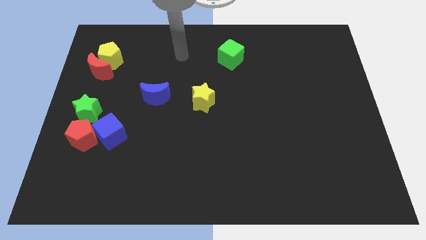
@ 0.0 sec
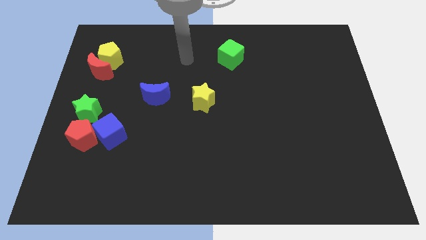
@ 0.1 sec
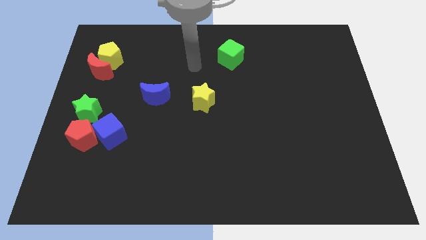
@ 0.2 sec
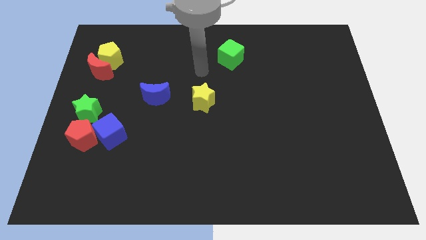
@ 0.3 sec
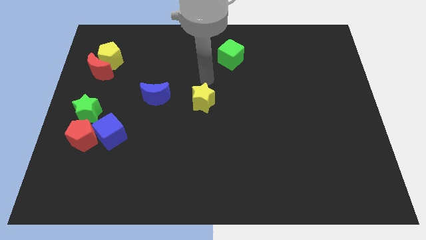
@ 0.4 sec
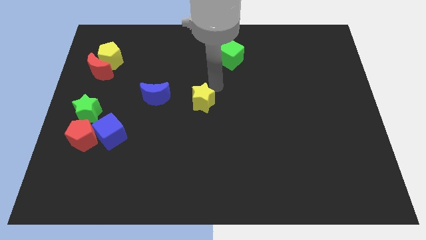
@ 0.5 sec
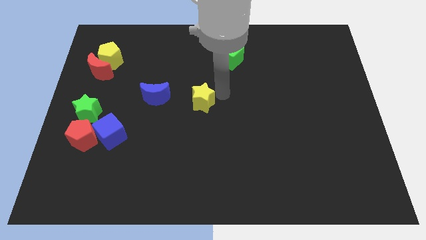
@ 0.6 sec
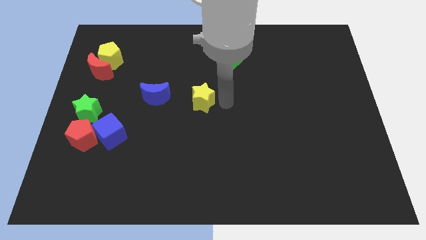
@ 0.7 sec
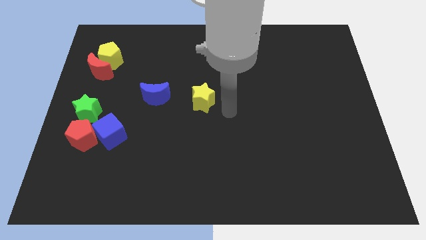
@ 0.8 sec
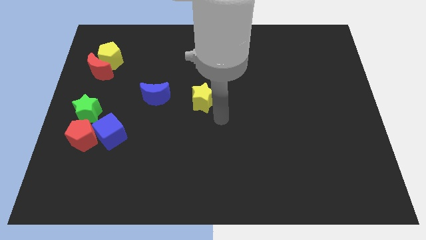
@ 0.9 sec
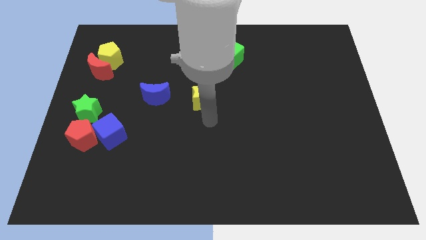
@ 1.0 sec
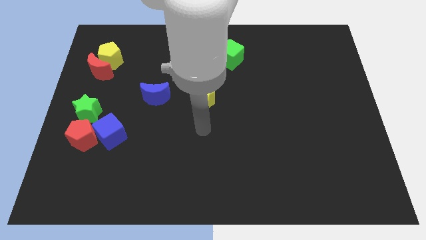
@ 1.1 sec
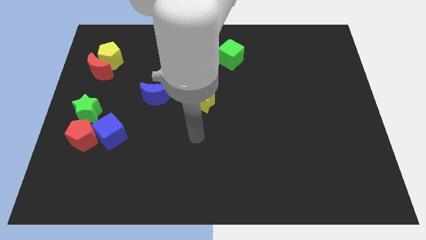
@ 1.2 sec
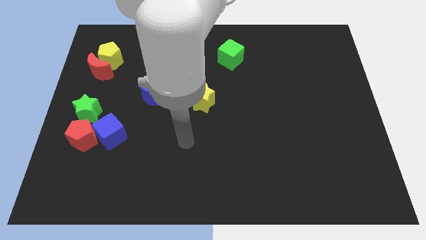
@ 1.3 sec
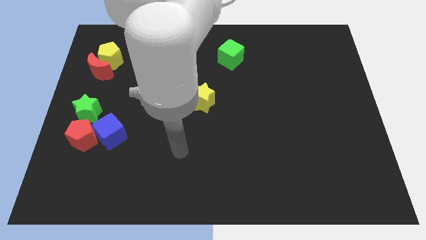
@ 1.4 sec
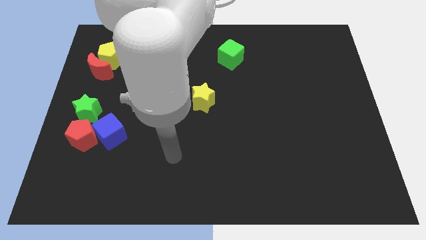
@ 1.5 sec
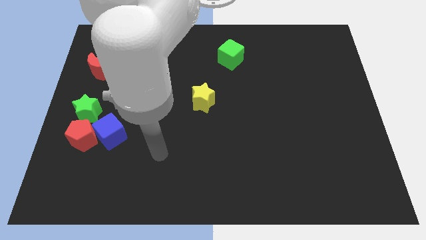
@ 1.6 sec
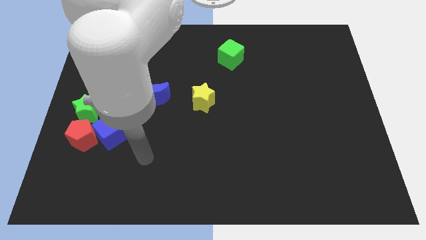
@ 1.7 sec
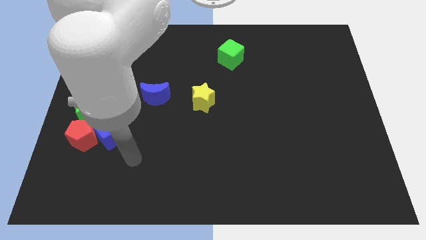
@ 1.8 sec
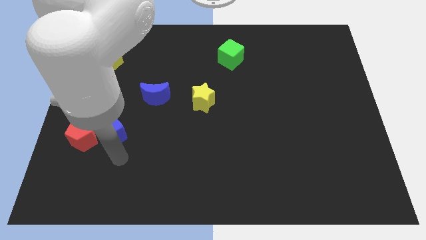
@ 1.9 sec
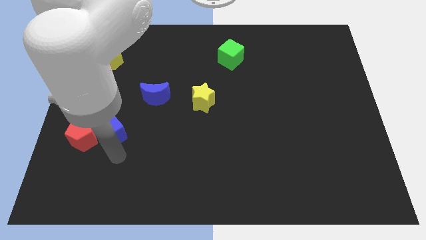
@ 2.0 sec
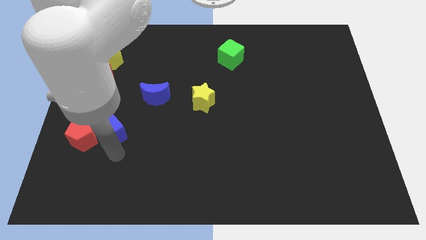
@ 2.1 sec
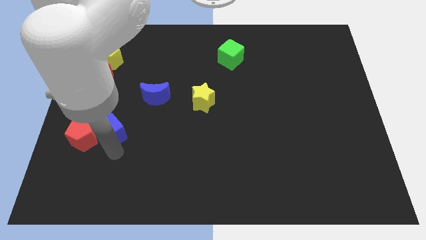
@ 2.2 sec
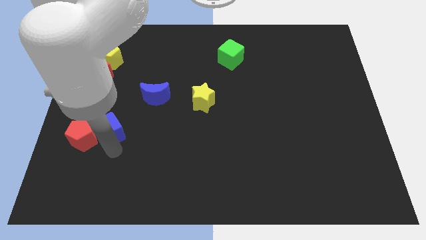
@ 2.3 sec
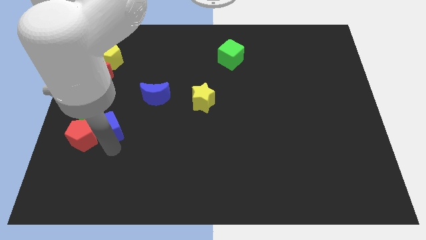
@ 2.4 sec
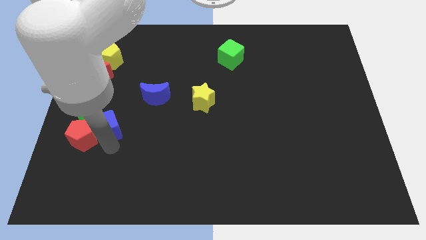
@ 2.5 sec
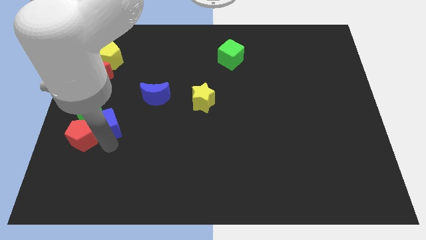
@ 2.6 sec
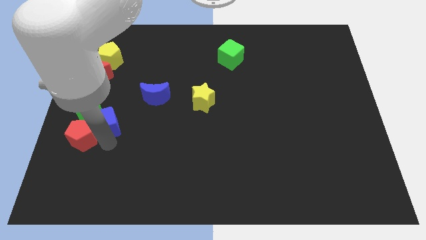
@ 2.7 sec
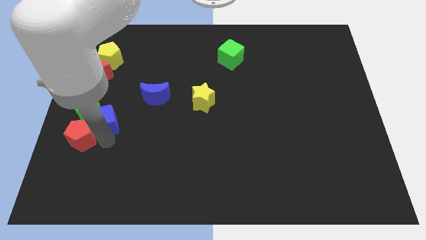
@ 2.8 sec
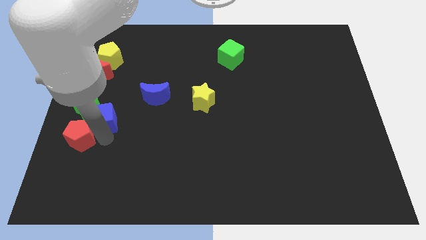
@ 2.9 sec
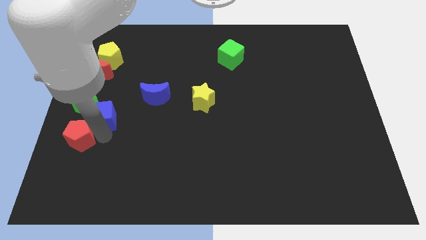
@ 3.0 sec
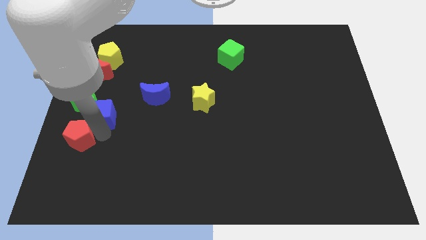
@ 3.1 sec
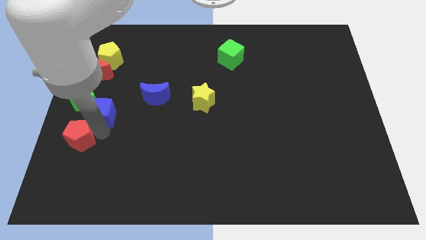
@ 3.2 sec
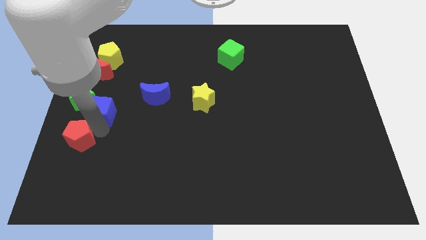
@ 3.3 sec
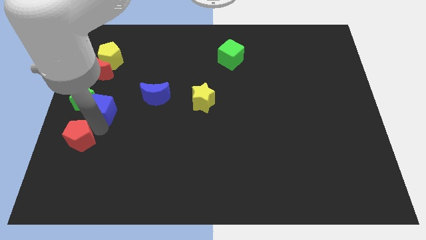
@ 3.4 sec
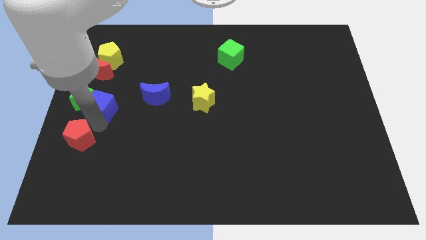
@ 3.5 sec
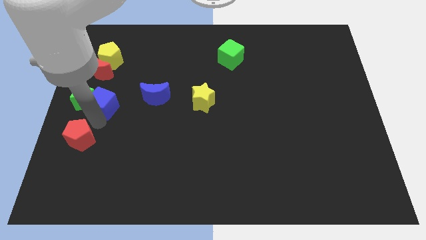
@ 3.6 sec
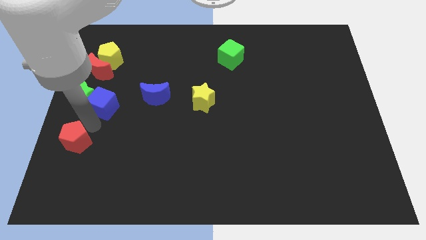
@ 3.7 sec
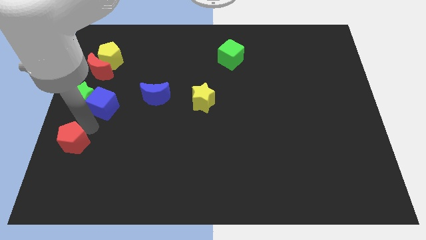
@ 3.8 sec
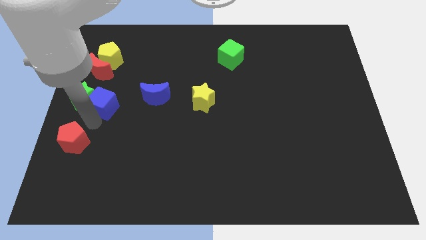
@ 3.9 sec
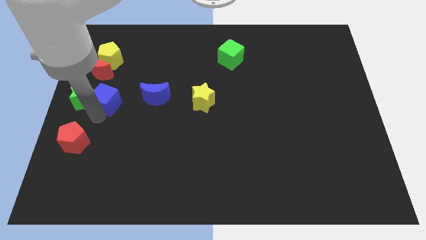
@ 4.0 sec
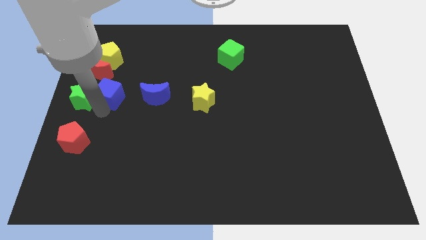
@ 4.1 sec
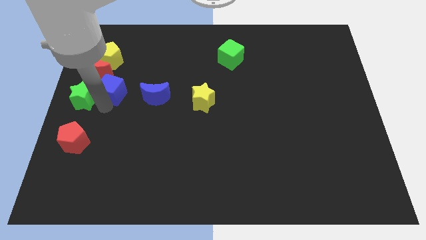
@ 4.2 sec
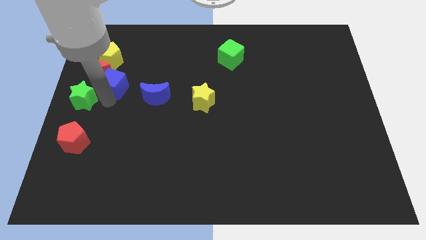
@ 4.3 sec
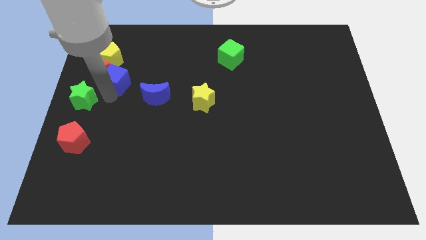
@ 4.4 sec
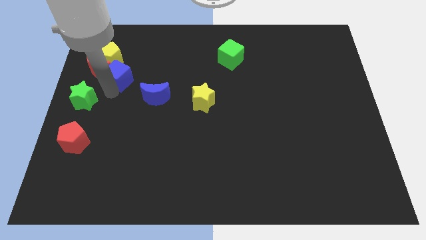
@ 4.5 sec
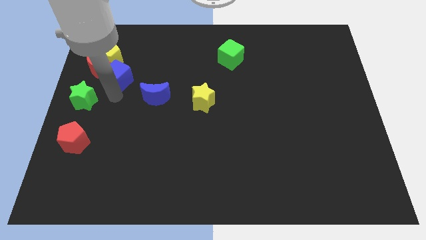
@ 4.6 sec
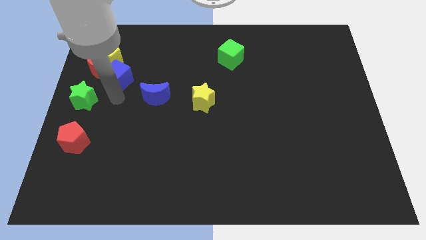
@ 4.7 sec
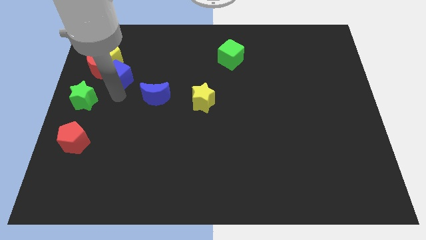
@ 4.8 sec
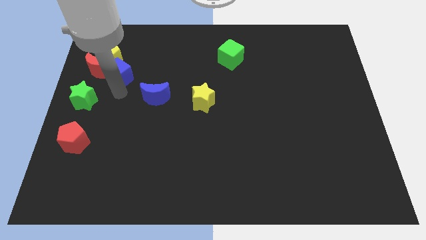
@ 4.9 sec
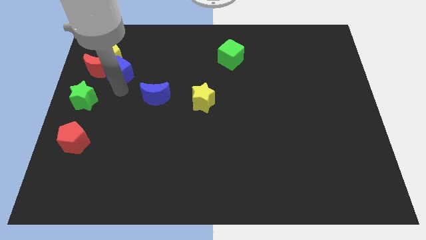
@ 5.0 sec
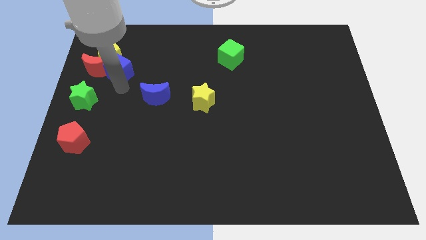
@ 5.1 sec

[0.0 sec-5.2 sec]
slide the blue cube to the top right of the red moon

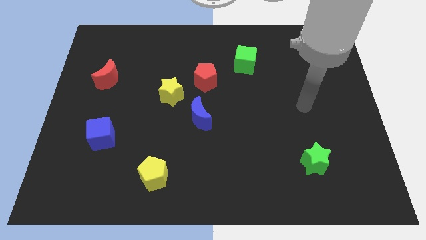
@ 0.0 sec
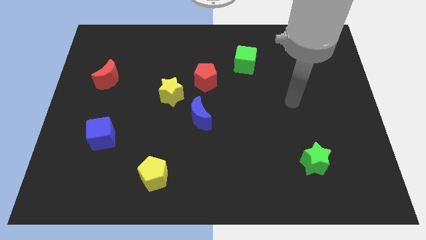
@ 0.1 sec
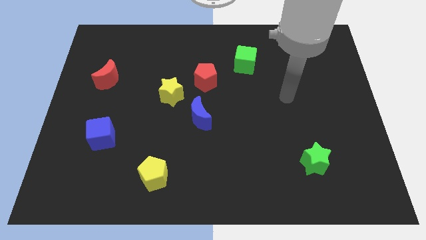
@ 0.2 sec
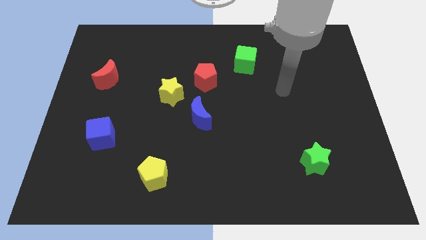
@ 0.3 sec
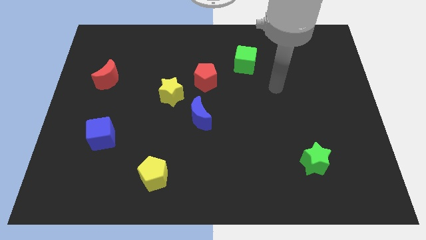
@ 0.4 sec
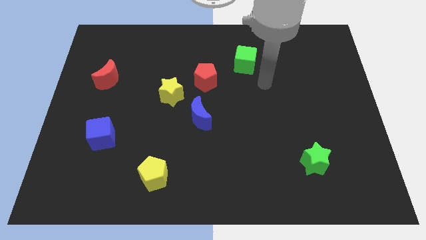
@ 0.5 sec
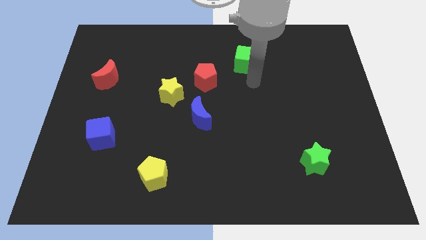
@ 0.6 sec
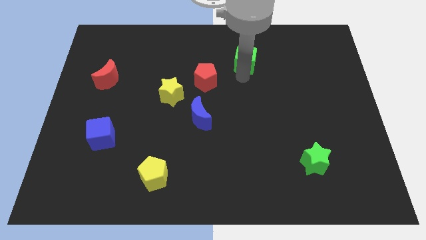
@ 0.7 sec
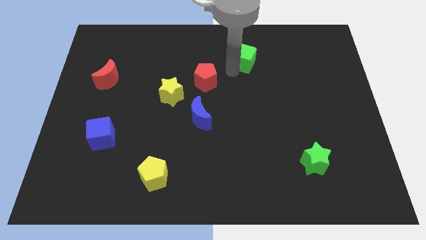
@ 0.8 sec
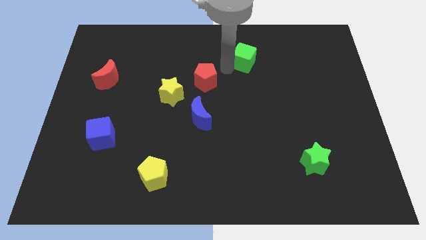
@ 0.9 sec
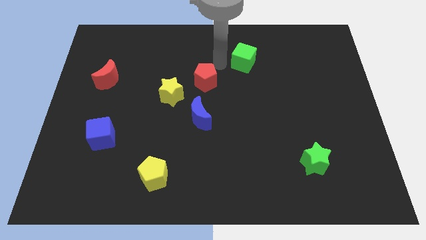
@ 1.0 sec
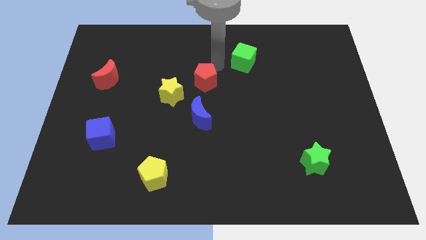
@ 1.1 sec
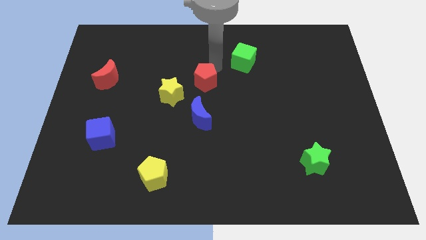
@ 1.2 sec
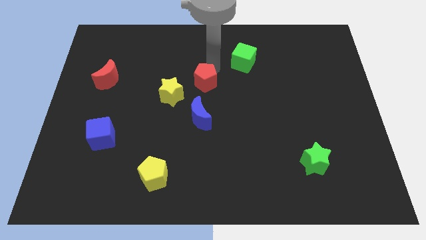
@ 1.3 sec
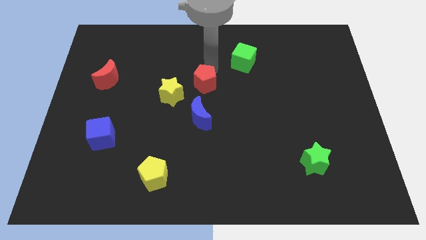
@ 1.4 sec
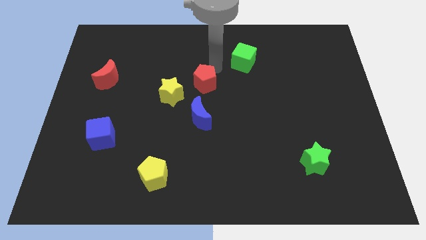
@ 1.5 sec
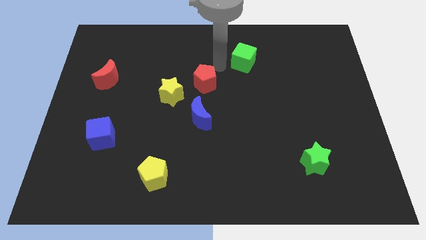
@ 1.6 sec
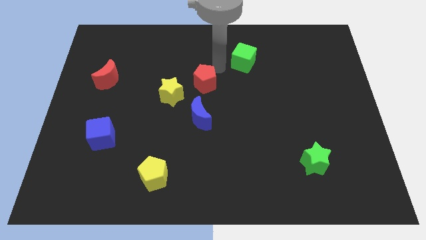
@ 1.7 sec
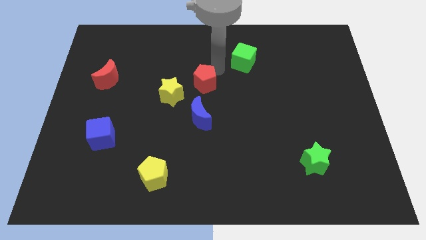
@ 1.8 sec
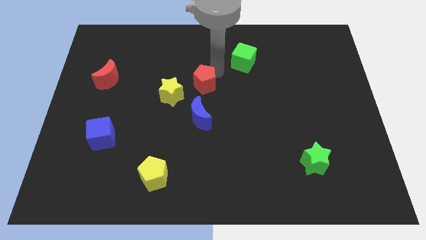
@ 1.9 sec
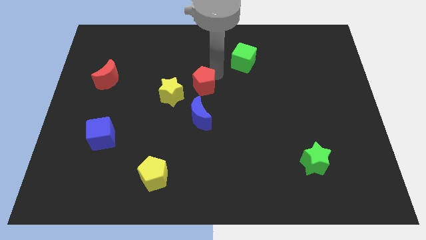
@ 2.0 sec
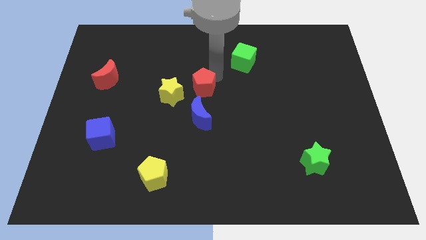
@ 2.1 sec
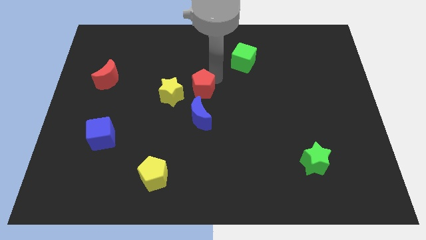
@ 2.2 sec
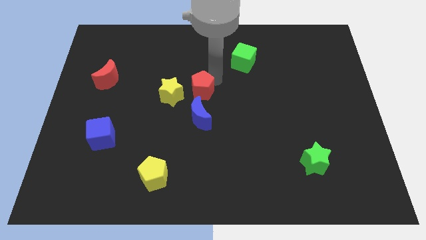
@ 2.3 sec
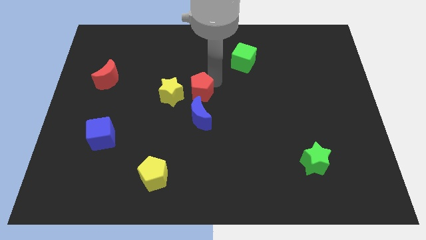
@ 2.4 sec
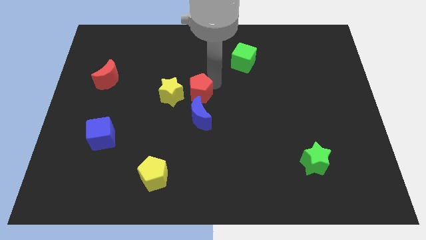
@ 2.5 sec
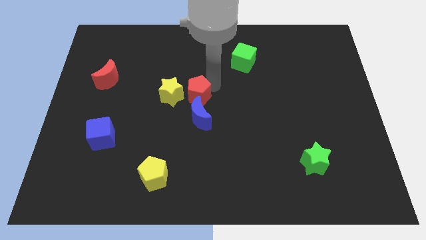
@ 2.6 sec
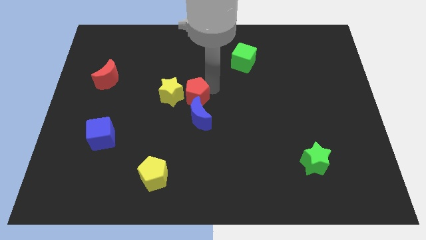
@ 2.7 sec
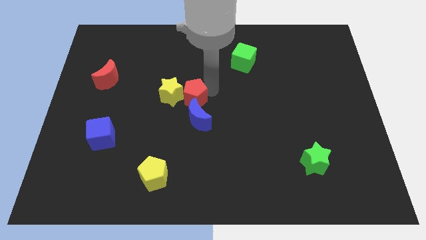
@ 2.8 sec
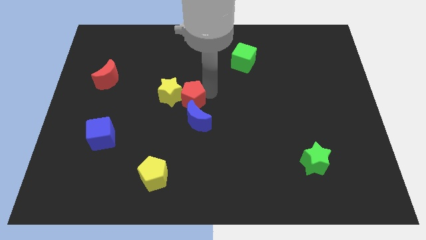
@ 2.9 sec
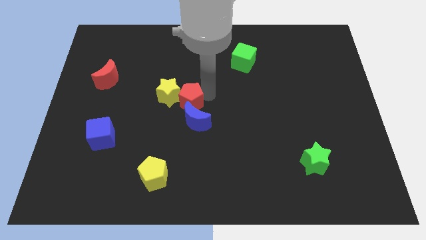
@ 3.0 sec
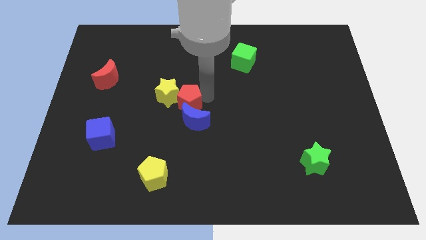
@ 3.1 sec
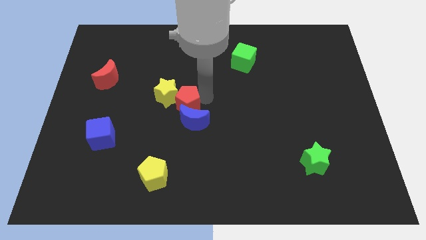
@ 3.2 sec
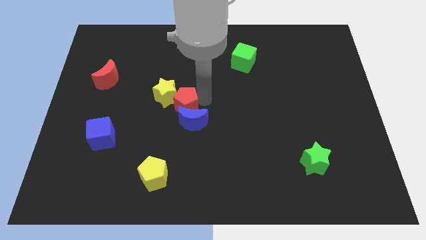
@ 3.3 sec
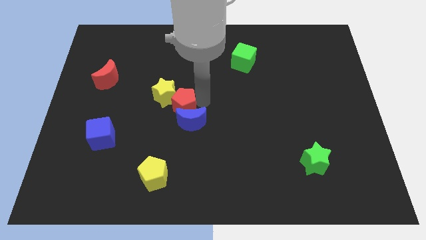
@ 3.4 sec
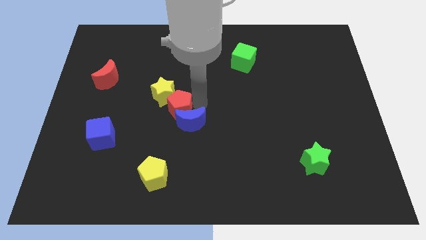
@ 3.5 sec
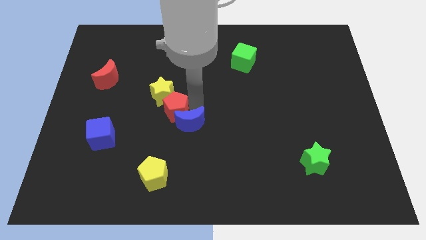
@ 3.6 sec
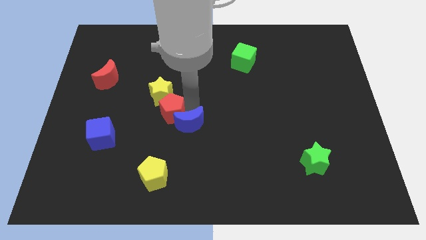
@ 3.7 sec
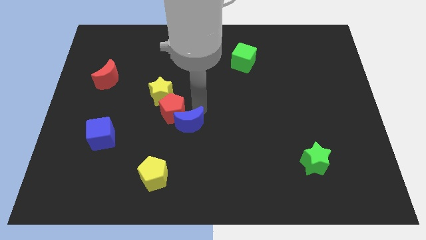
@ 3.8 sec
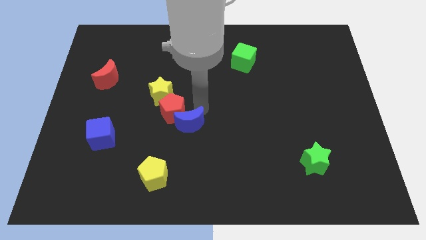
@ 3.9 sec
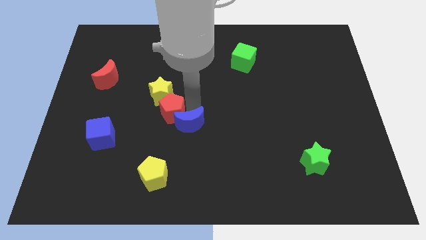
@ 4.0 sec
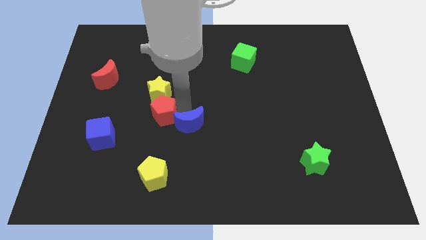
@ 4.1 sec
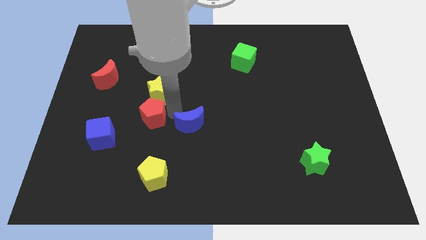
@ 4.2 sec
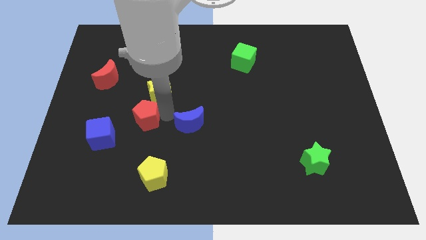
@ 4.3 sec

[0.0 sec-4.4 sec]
put the red pentagon to the top right of the blue cube
